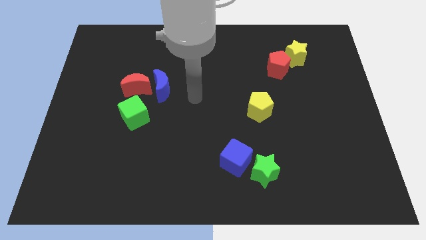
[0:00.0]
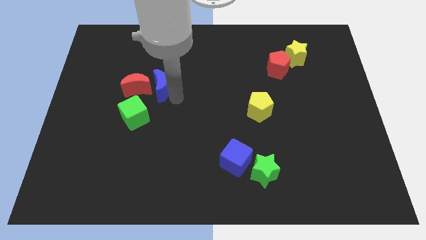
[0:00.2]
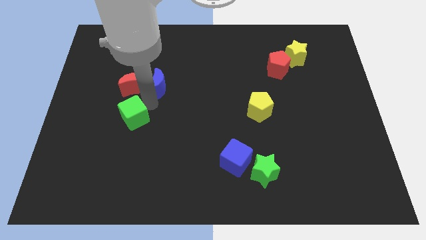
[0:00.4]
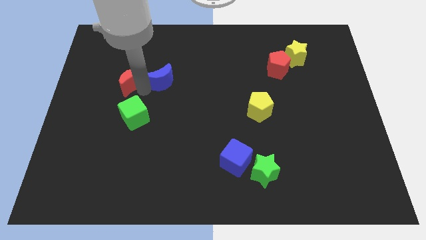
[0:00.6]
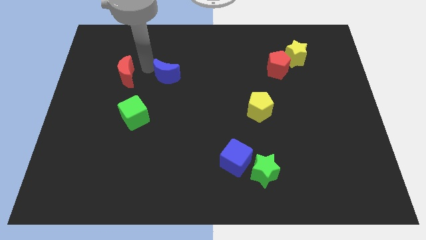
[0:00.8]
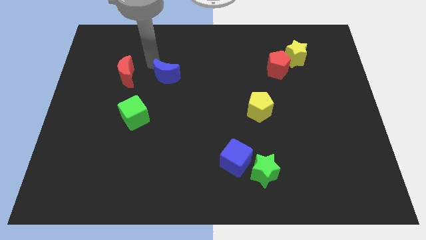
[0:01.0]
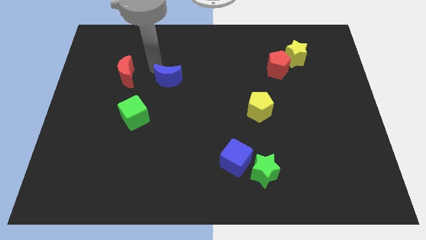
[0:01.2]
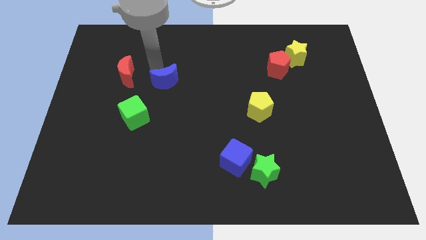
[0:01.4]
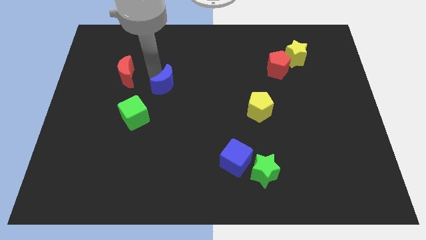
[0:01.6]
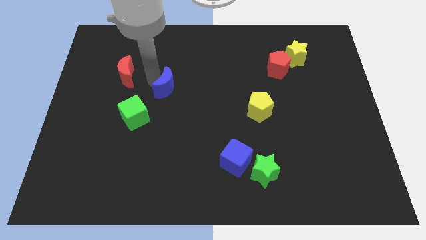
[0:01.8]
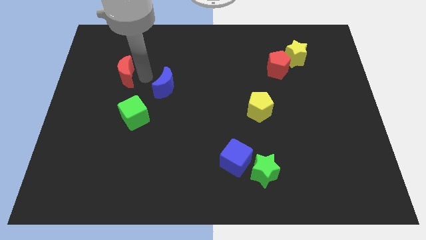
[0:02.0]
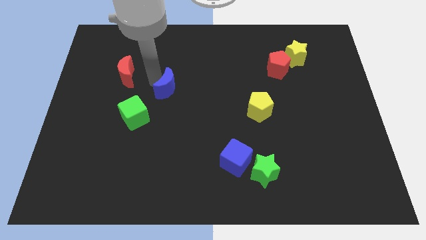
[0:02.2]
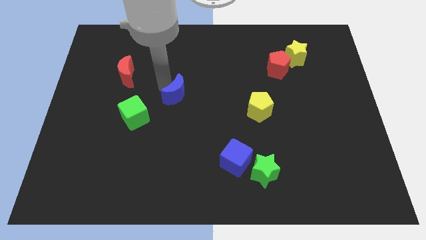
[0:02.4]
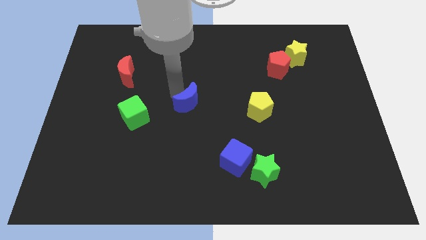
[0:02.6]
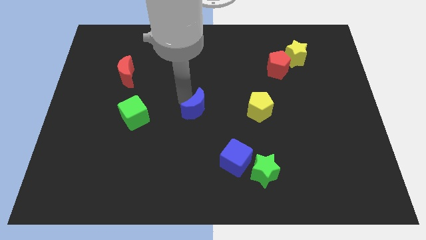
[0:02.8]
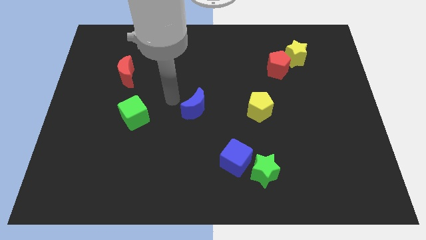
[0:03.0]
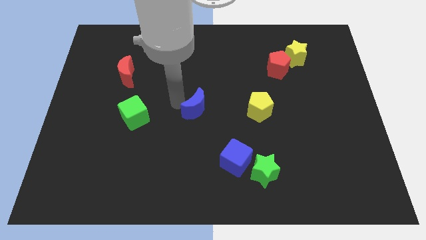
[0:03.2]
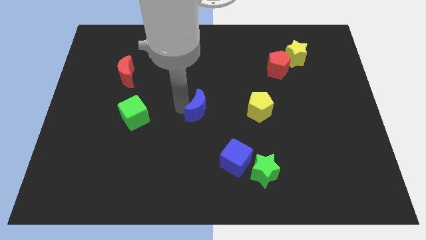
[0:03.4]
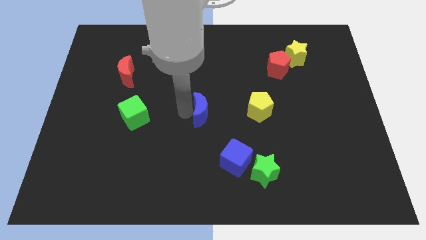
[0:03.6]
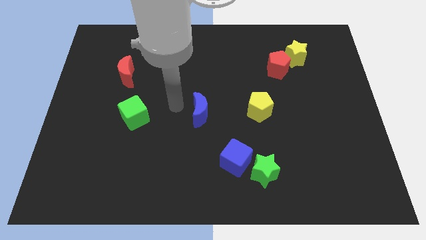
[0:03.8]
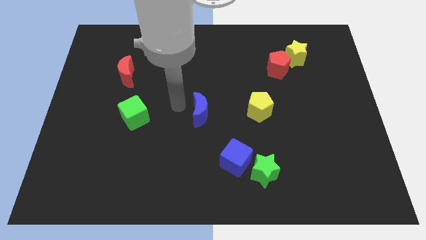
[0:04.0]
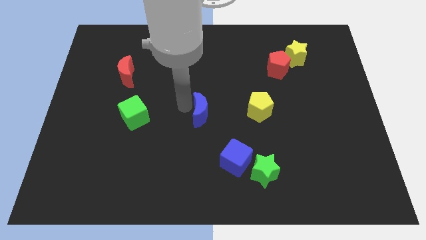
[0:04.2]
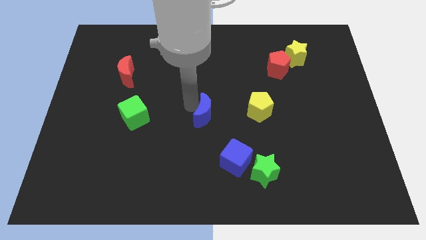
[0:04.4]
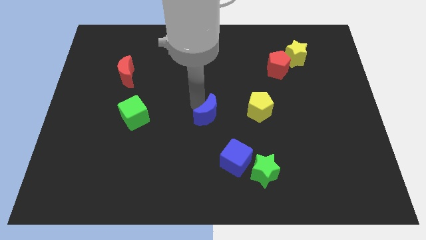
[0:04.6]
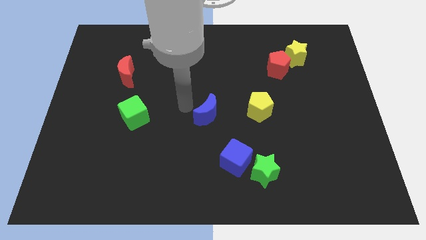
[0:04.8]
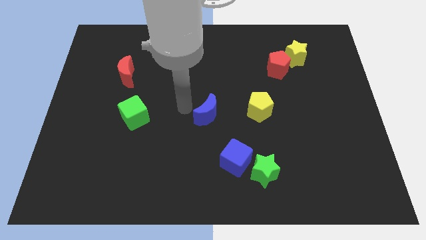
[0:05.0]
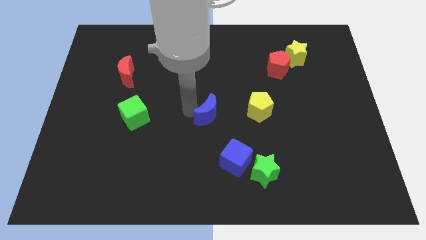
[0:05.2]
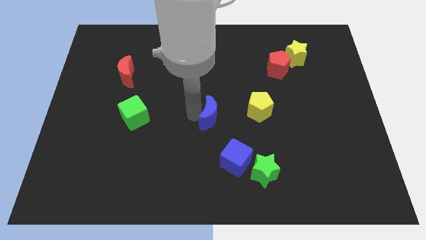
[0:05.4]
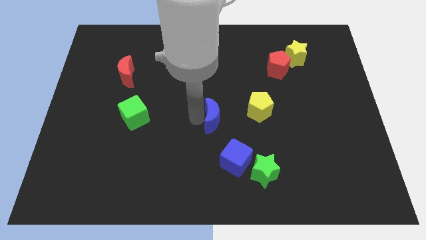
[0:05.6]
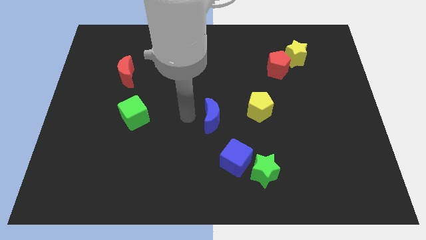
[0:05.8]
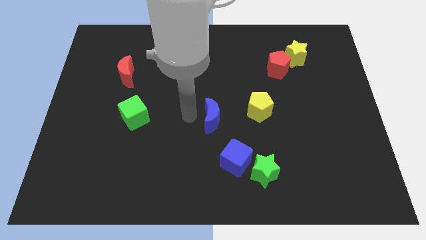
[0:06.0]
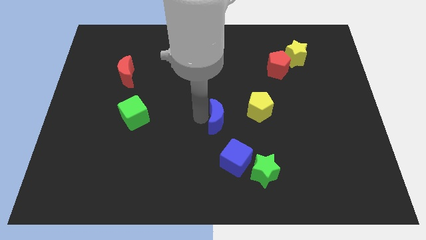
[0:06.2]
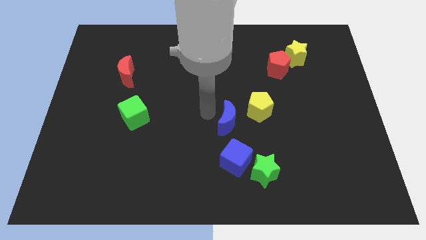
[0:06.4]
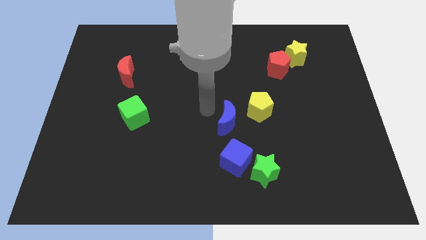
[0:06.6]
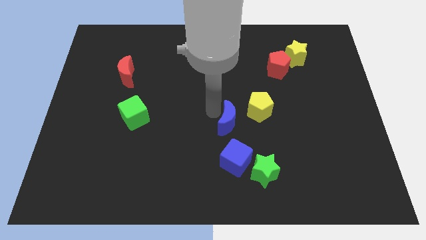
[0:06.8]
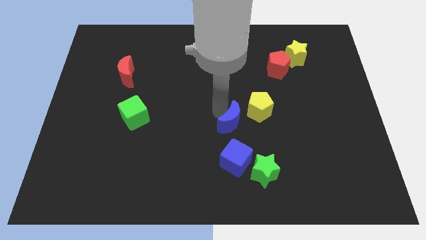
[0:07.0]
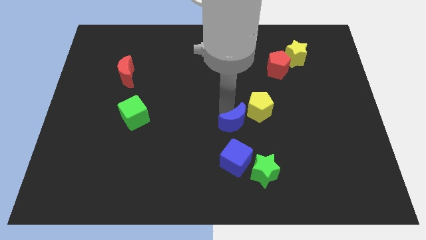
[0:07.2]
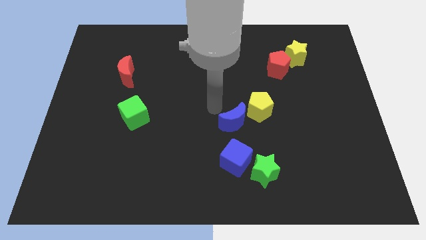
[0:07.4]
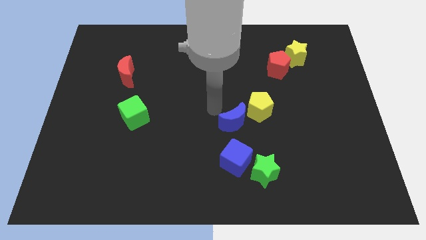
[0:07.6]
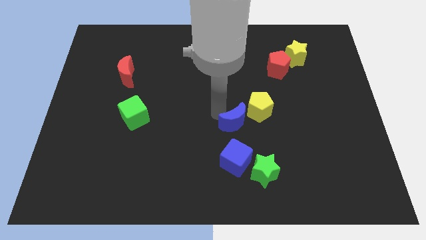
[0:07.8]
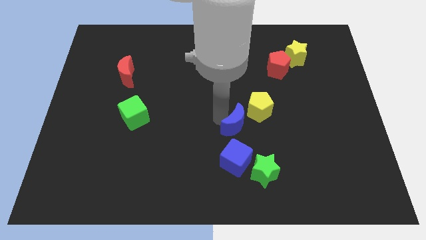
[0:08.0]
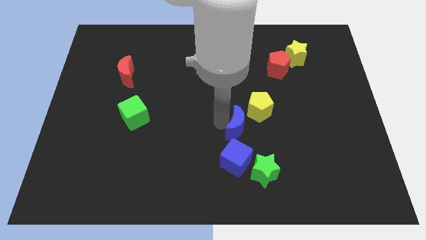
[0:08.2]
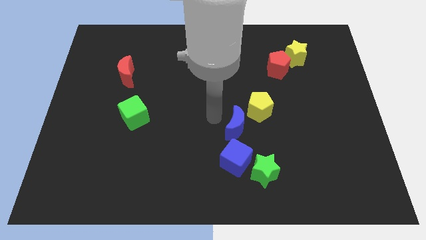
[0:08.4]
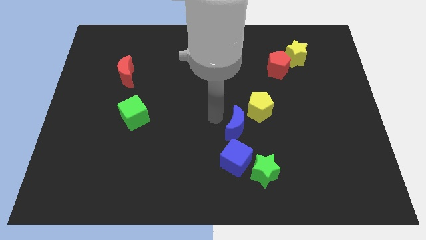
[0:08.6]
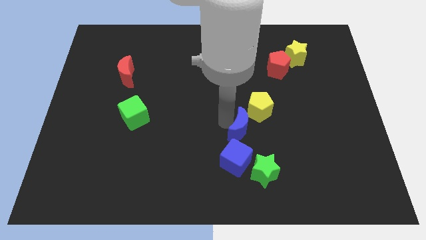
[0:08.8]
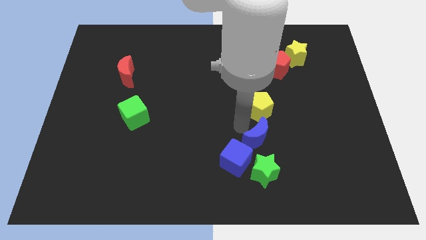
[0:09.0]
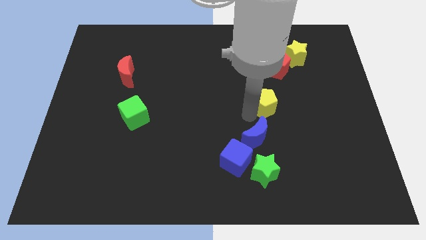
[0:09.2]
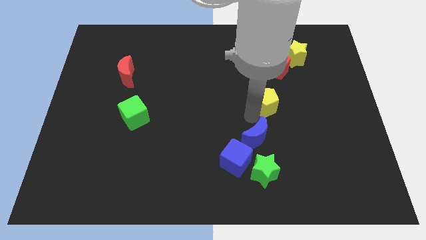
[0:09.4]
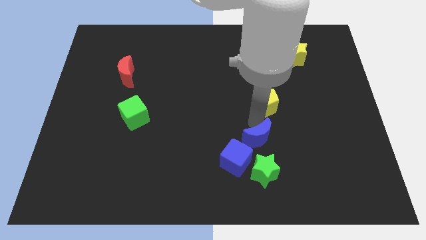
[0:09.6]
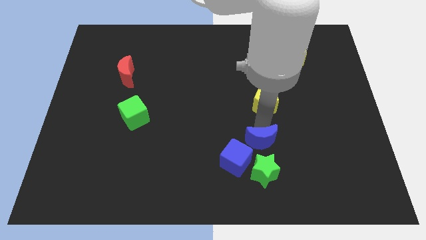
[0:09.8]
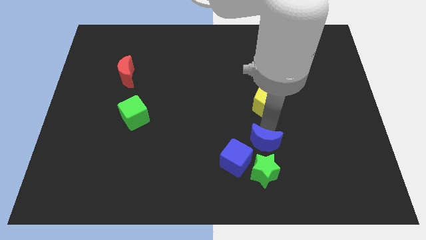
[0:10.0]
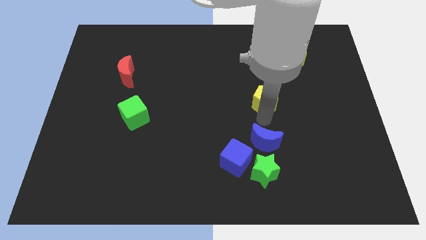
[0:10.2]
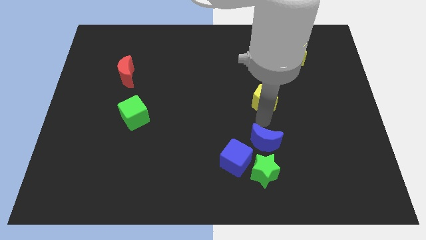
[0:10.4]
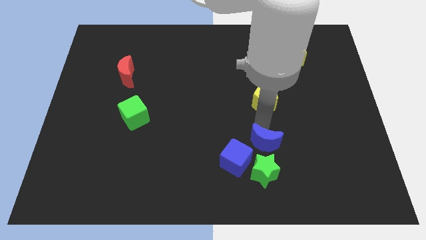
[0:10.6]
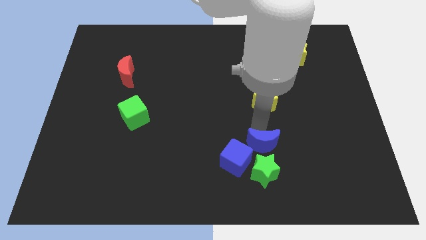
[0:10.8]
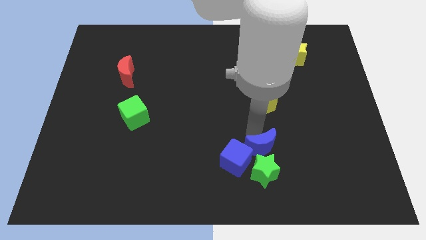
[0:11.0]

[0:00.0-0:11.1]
move the blue moon next to the green star

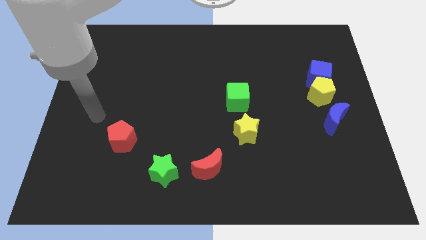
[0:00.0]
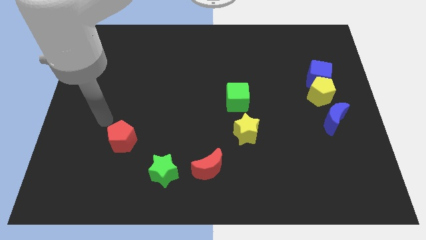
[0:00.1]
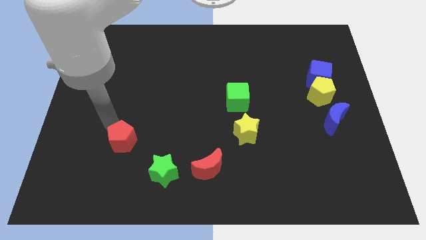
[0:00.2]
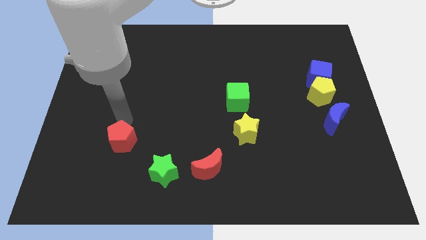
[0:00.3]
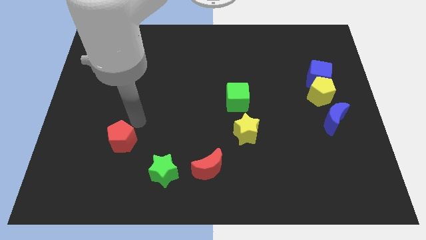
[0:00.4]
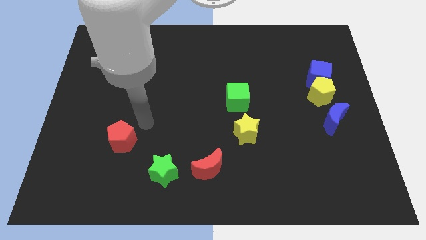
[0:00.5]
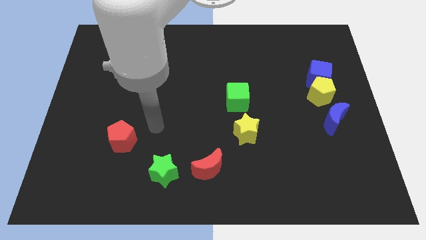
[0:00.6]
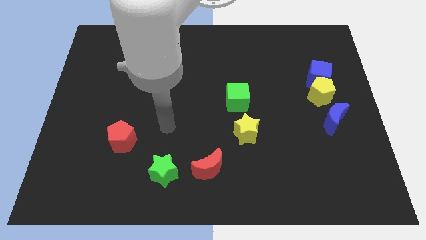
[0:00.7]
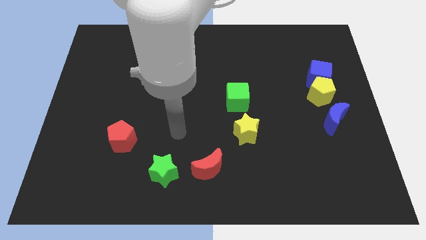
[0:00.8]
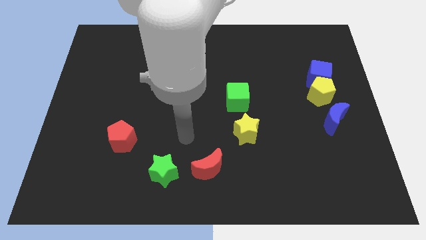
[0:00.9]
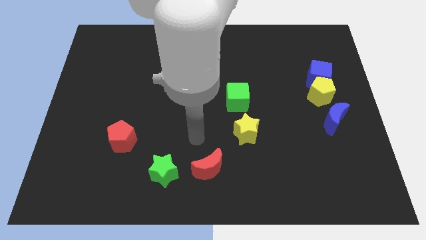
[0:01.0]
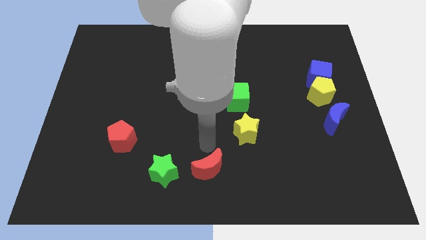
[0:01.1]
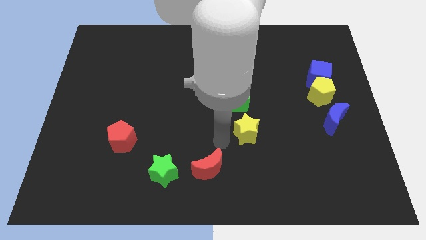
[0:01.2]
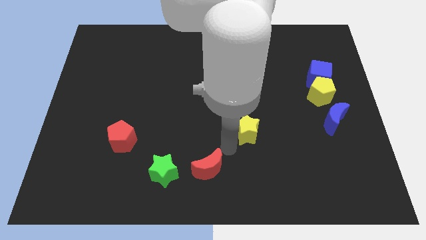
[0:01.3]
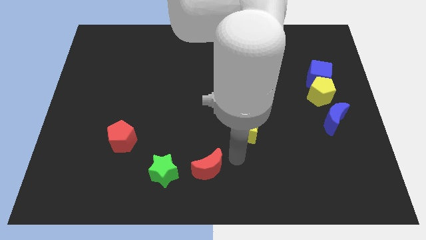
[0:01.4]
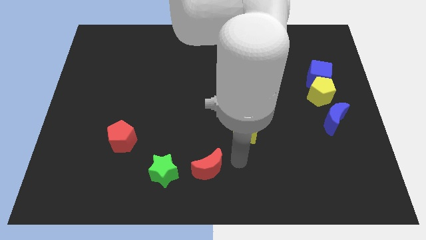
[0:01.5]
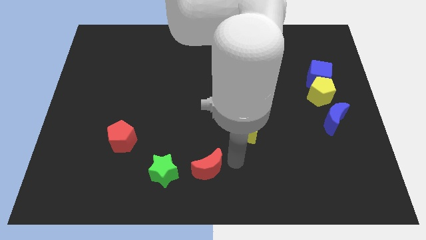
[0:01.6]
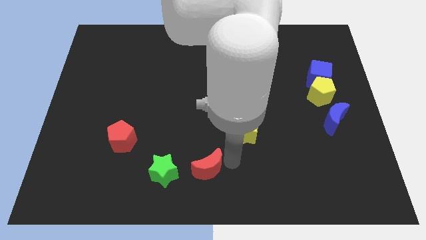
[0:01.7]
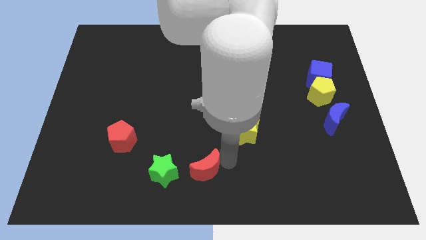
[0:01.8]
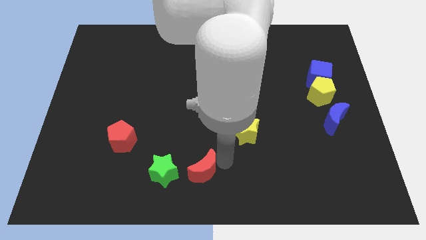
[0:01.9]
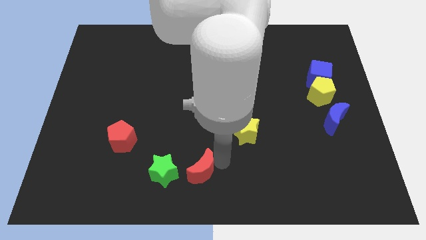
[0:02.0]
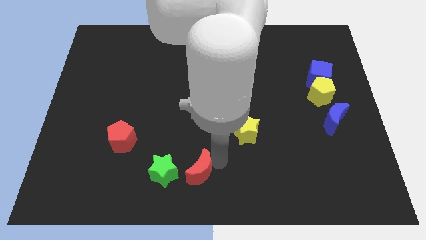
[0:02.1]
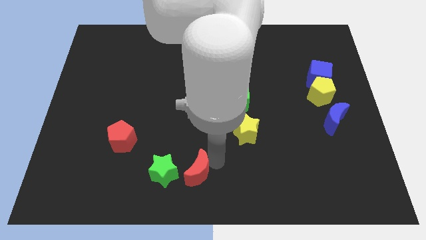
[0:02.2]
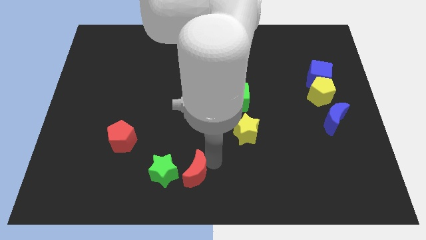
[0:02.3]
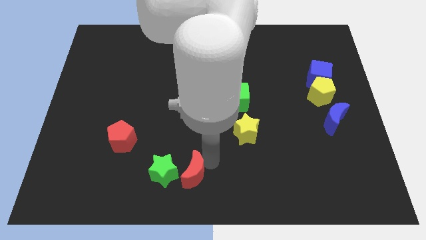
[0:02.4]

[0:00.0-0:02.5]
slide the red moon to the green star
